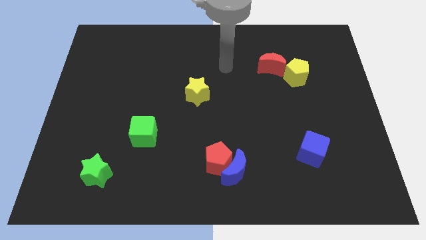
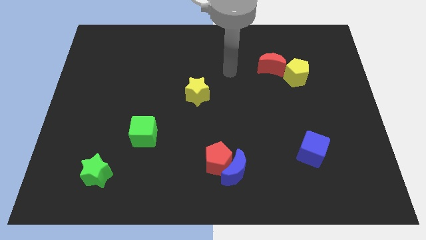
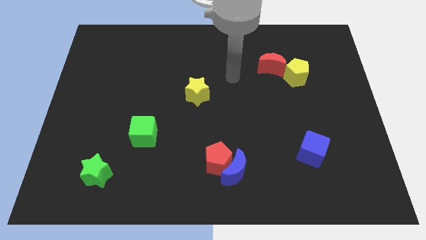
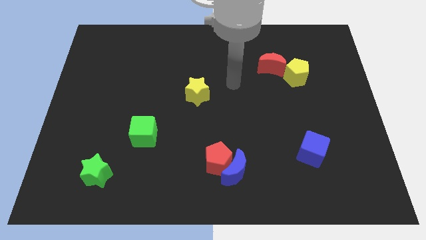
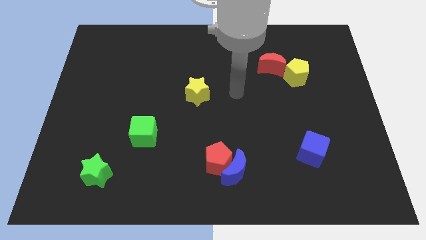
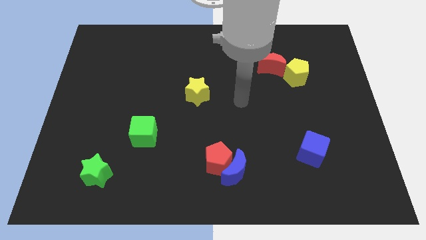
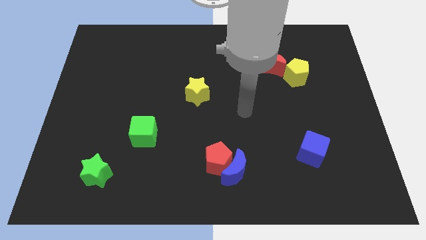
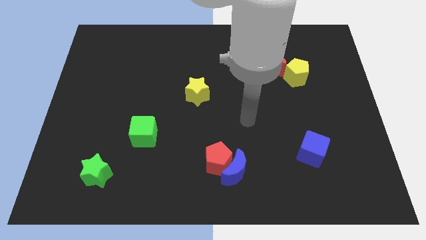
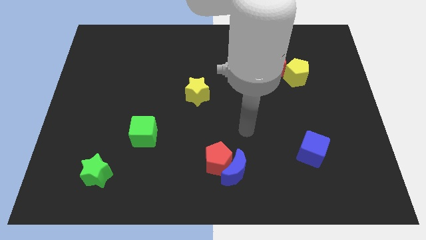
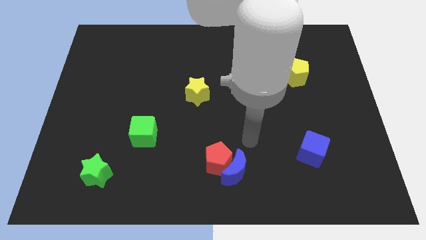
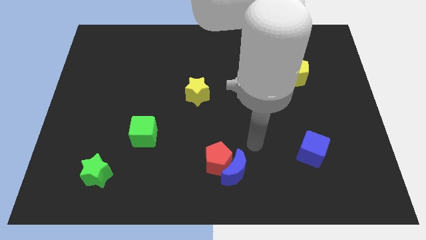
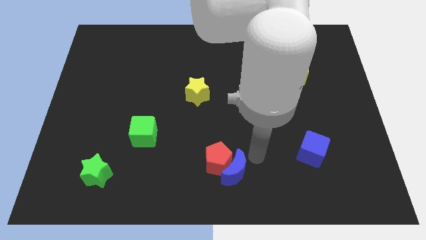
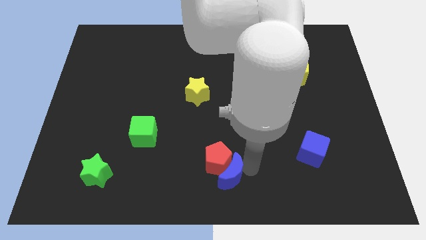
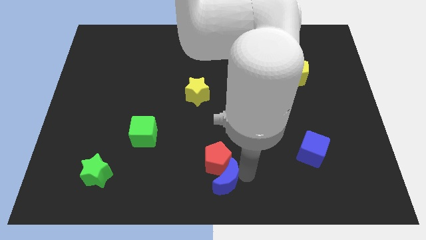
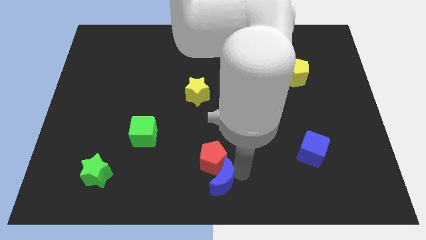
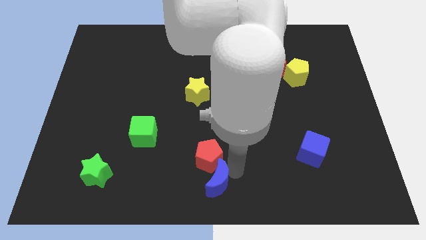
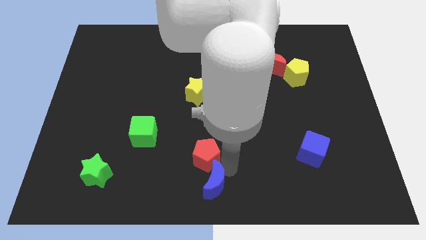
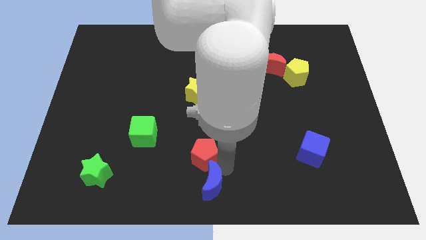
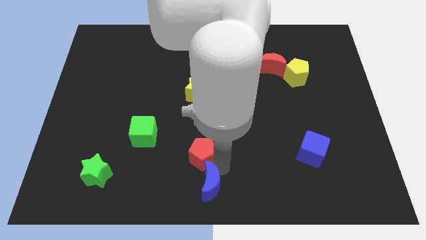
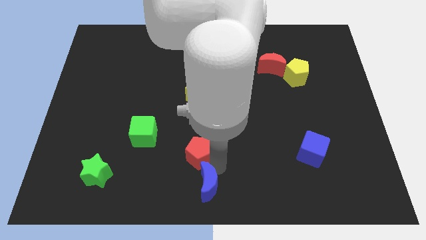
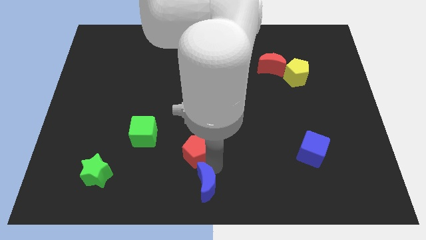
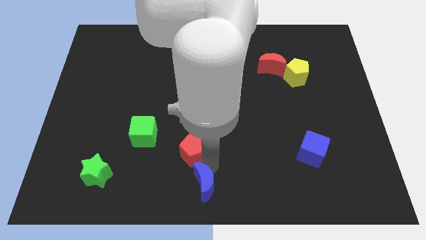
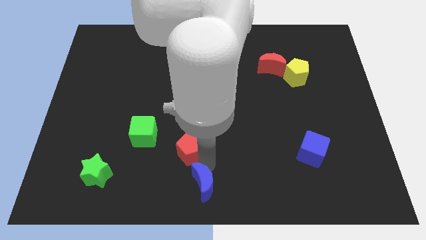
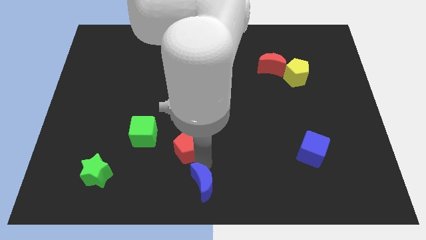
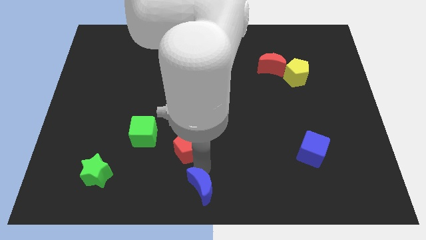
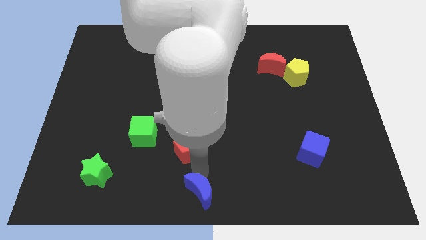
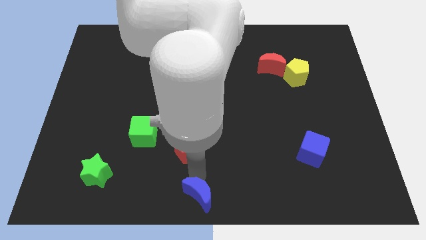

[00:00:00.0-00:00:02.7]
separate the red pentagon from the blue moon

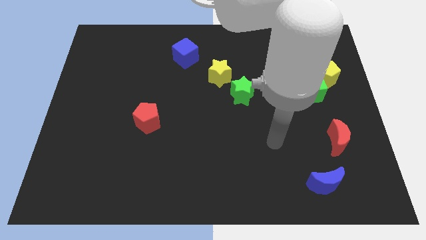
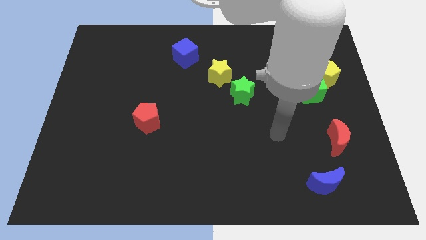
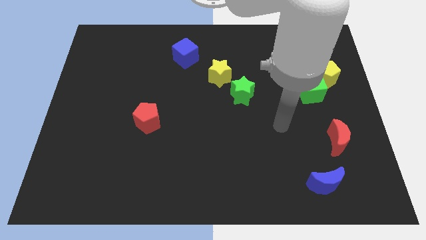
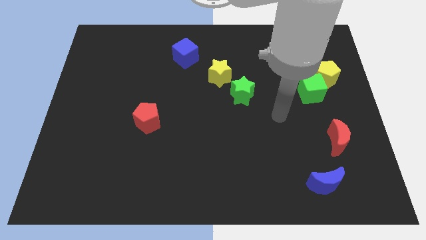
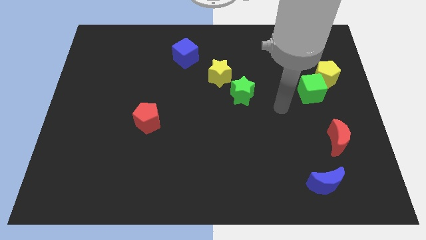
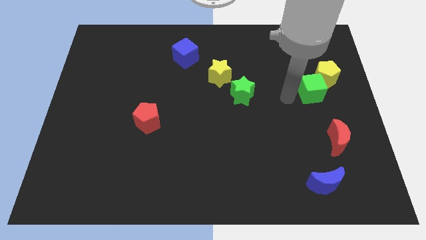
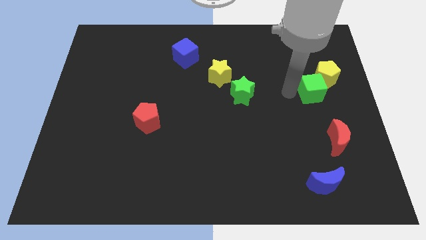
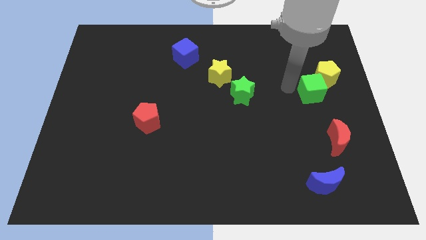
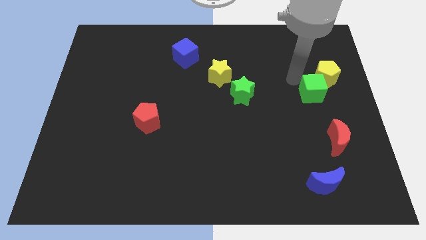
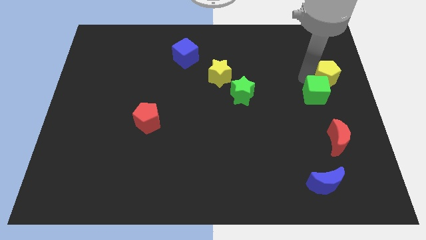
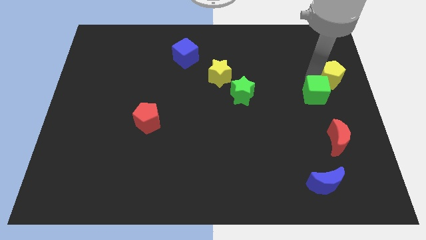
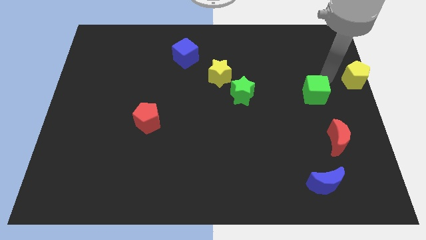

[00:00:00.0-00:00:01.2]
pull the green cube apart from the yellow pentagon

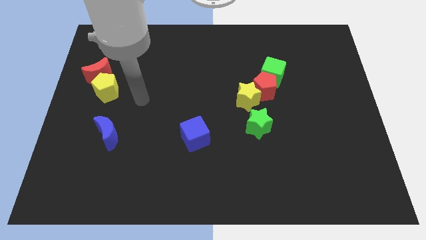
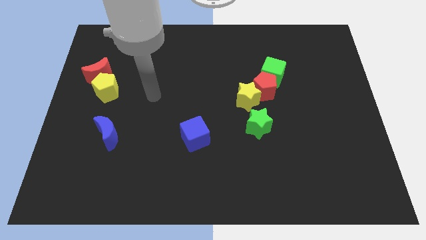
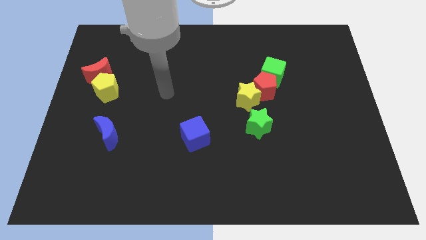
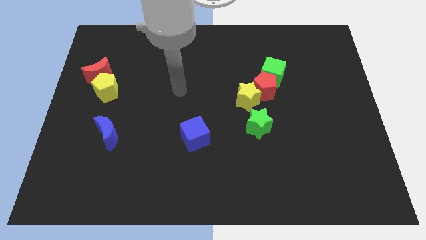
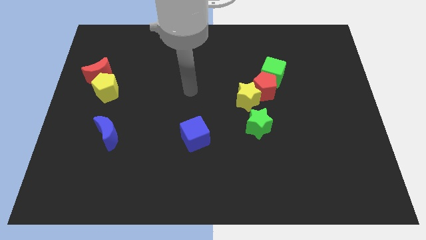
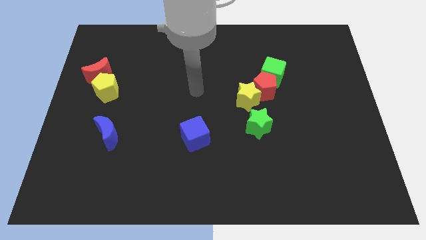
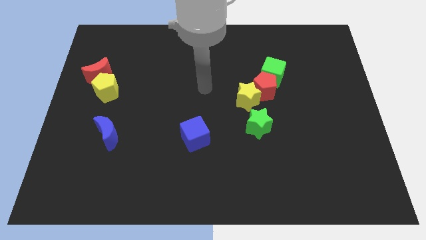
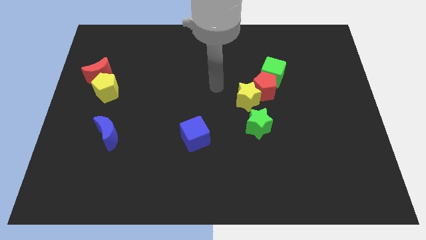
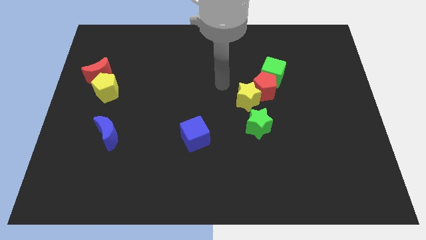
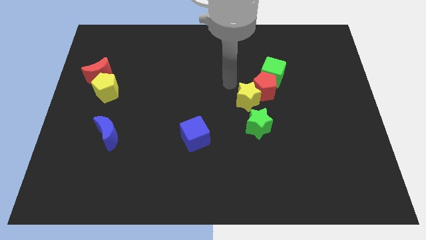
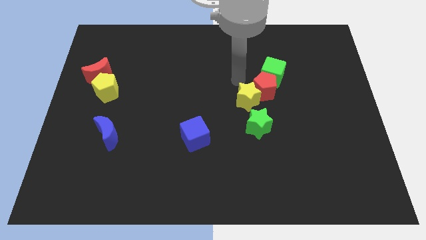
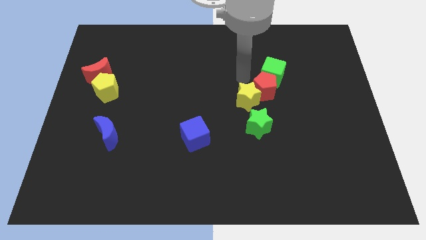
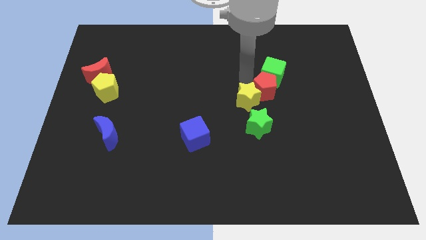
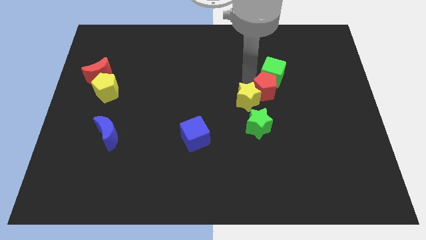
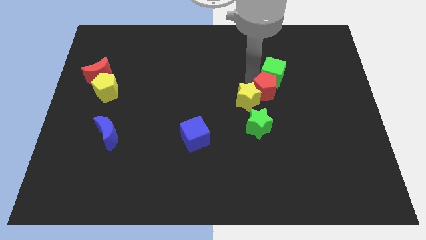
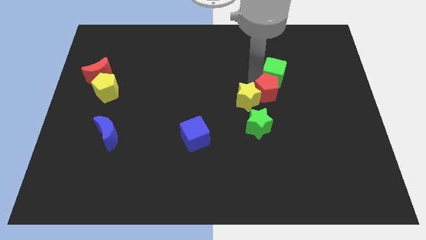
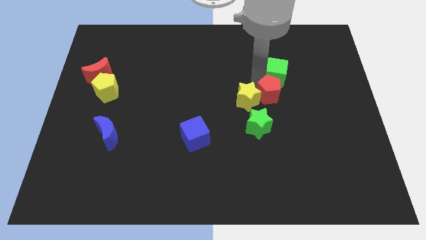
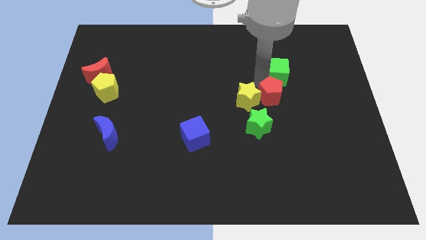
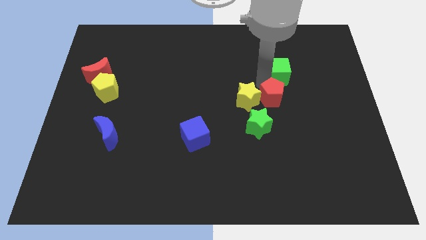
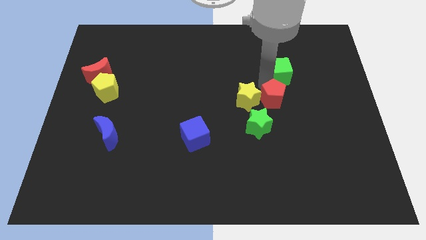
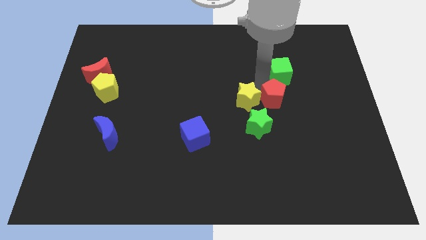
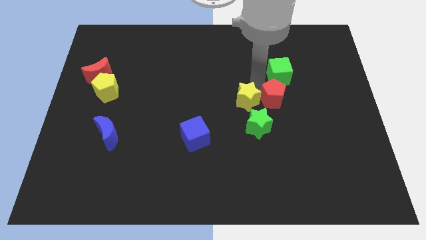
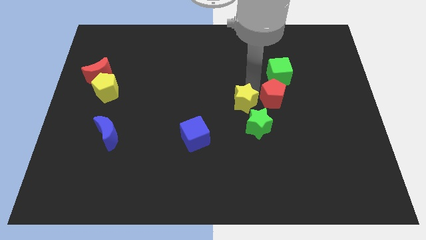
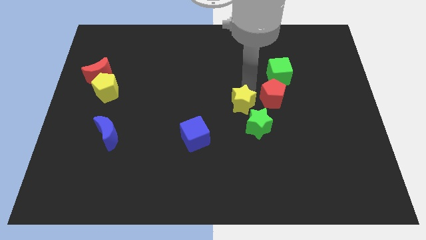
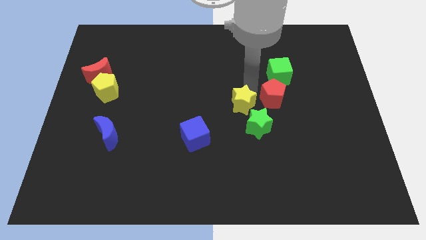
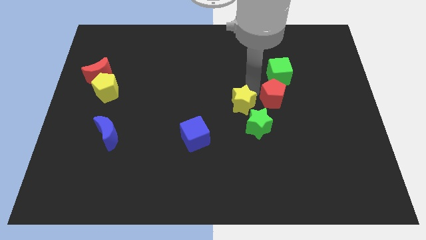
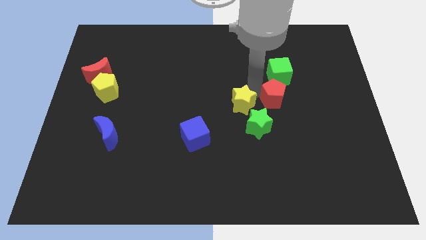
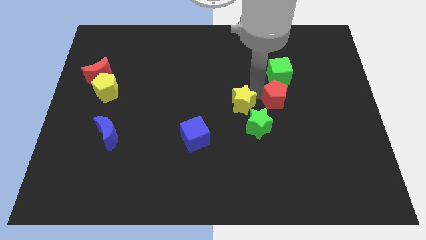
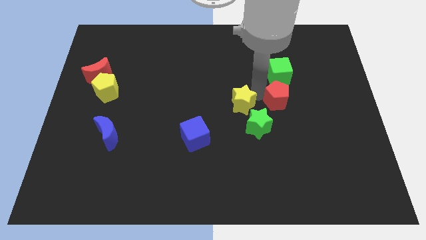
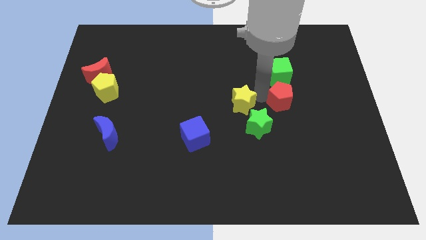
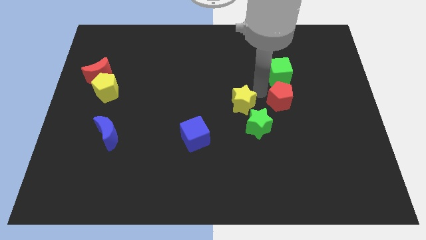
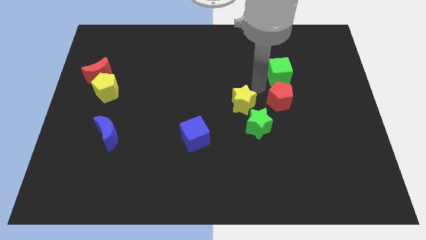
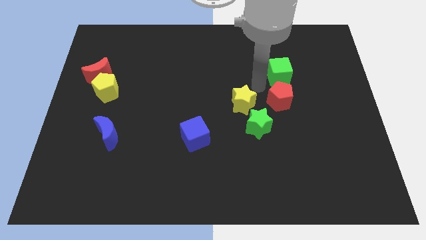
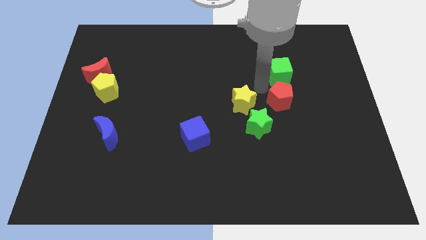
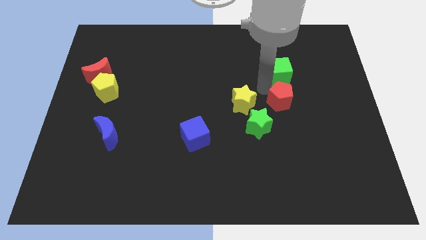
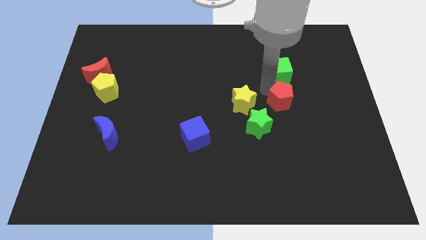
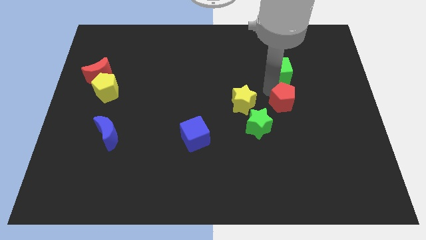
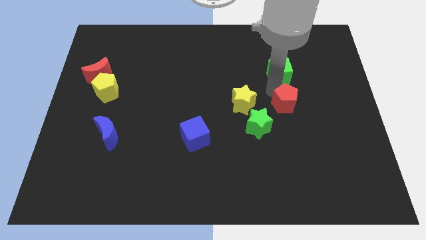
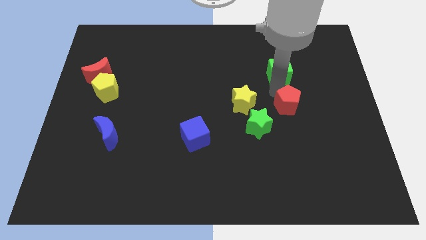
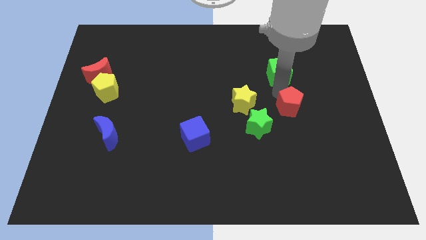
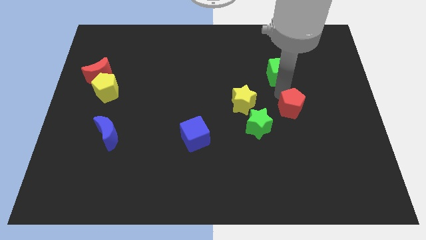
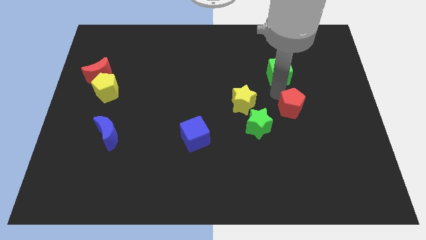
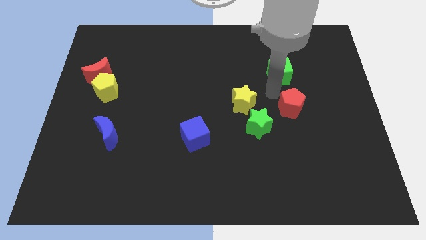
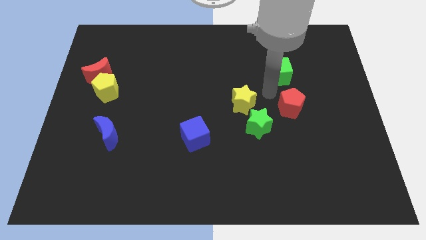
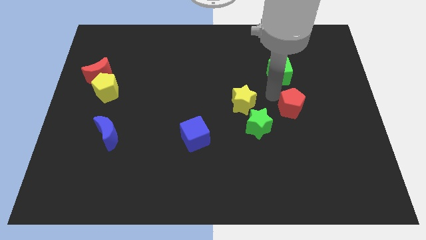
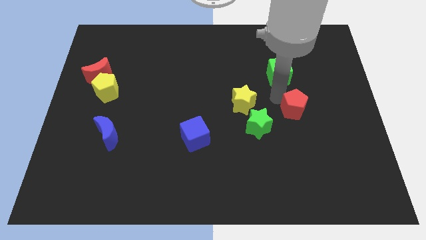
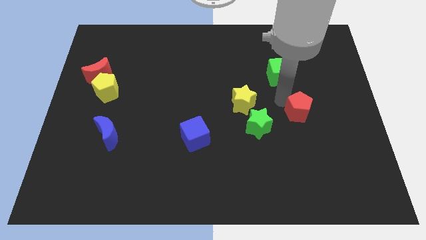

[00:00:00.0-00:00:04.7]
move the red pentagon away from the green cube and yellow star

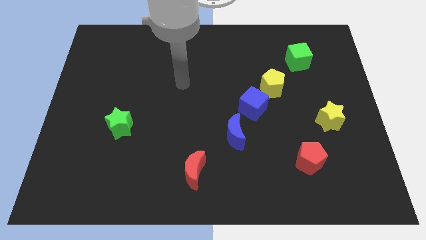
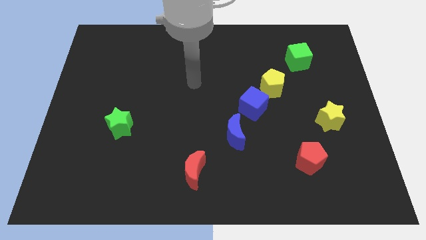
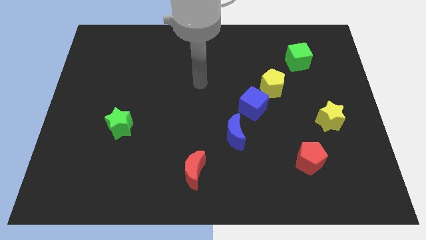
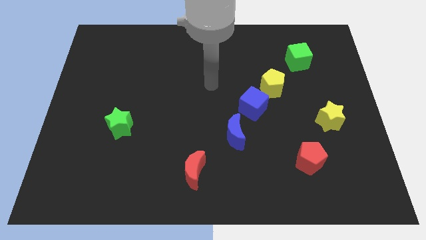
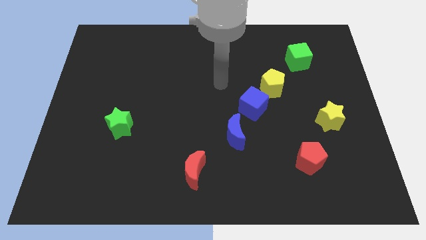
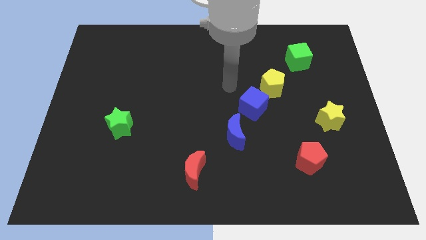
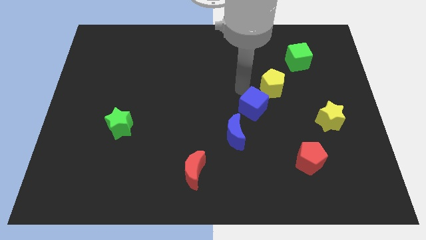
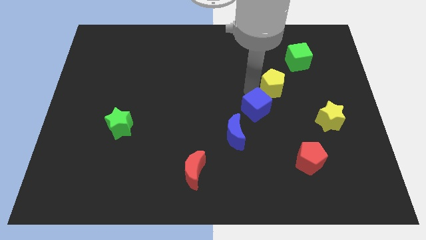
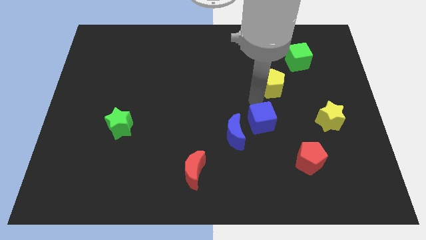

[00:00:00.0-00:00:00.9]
separate the yellow pentagon from the blue cube
